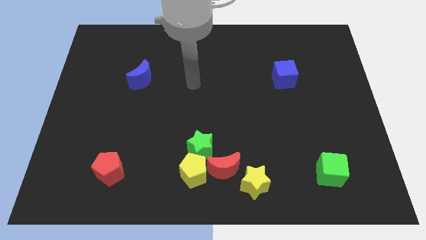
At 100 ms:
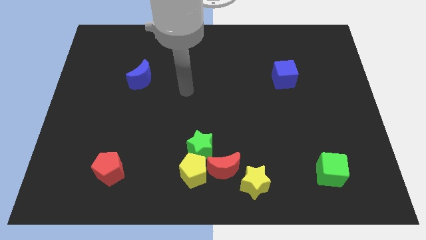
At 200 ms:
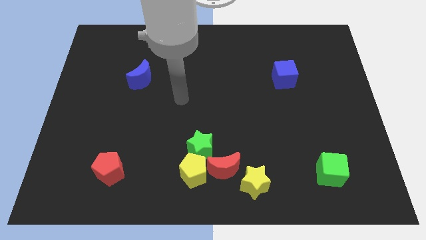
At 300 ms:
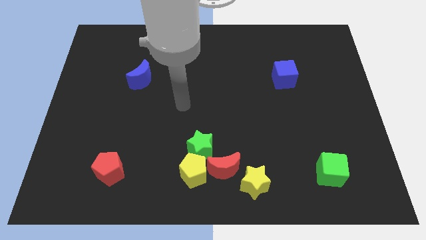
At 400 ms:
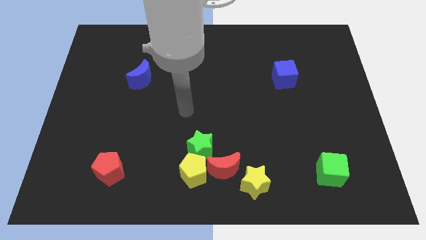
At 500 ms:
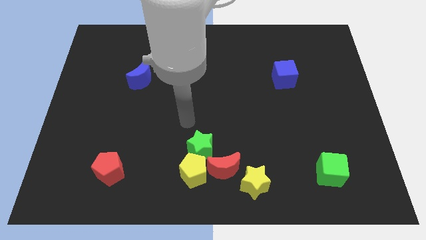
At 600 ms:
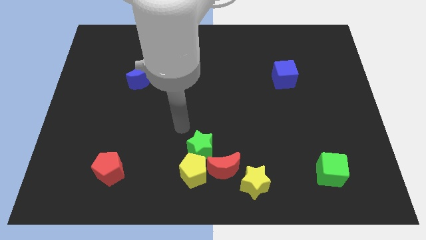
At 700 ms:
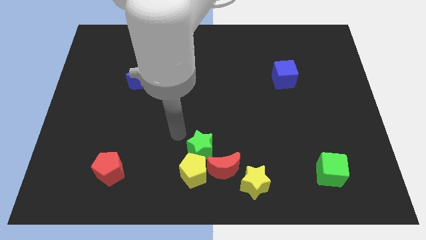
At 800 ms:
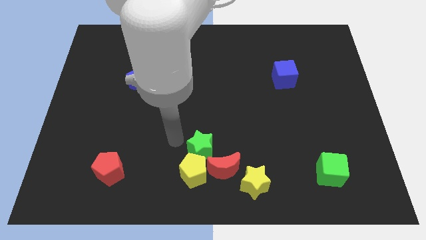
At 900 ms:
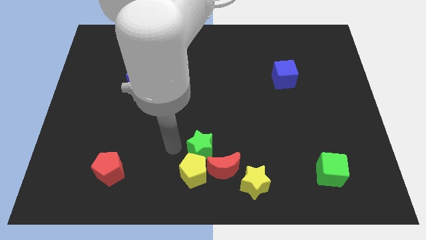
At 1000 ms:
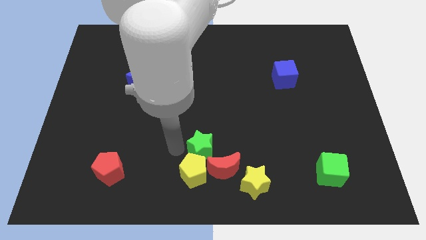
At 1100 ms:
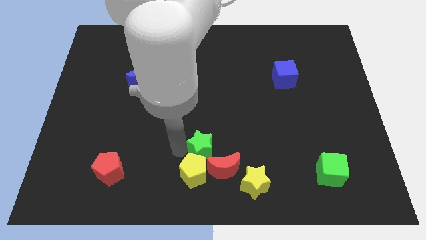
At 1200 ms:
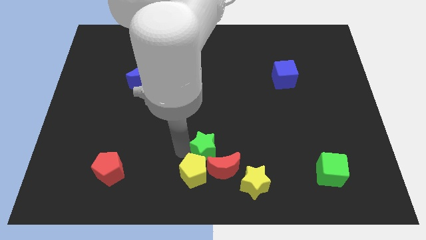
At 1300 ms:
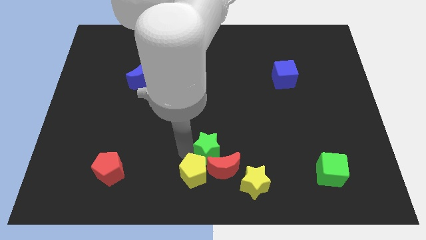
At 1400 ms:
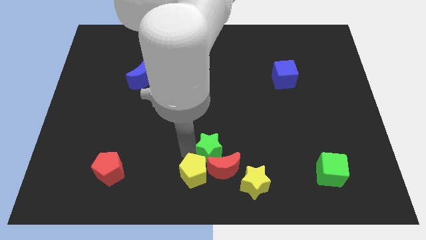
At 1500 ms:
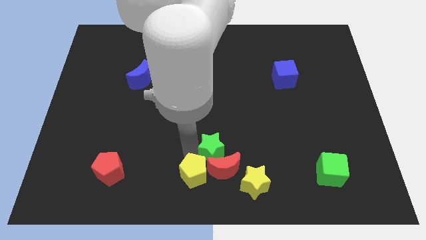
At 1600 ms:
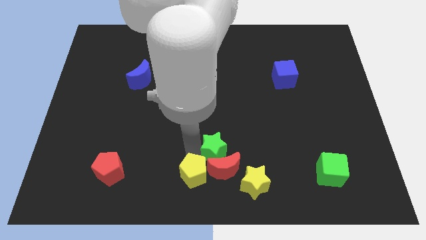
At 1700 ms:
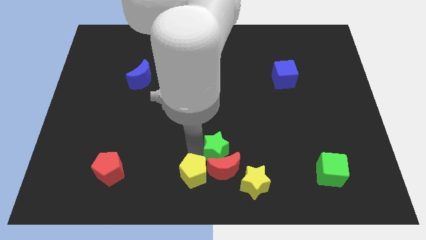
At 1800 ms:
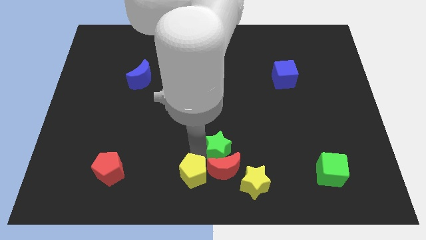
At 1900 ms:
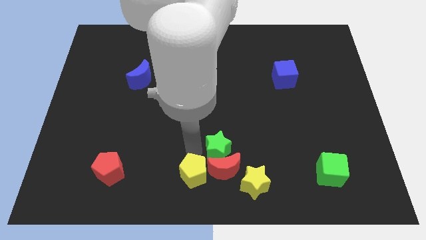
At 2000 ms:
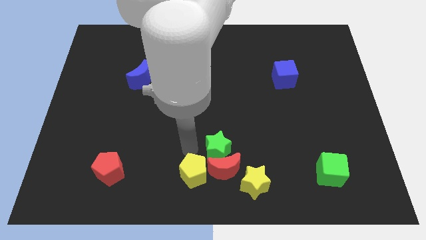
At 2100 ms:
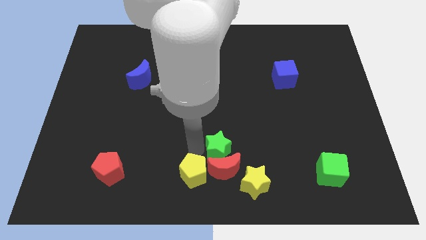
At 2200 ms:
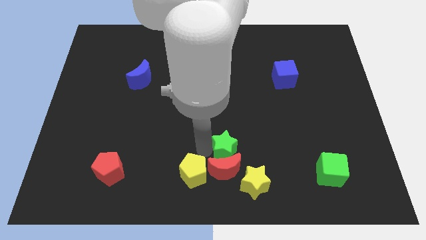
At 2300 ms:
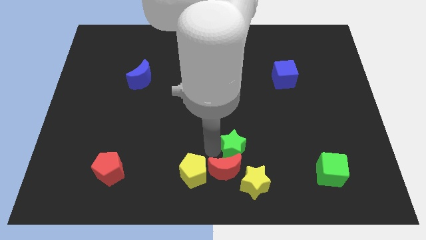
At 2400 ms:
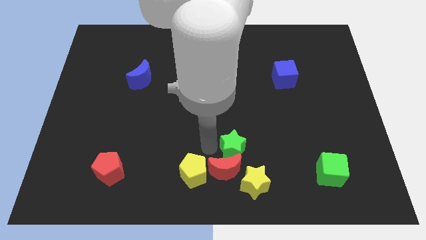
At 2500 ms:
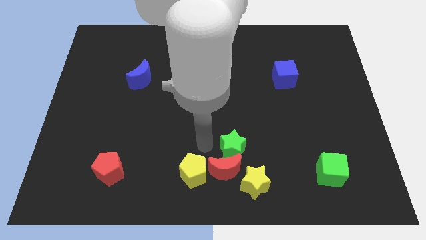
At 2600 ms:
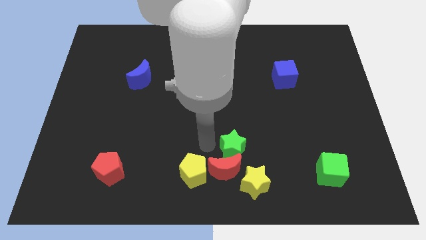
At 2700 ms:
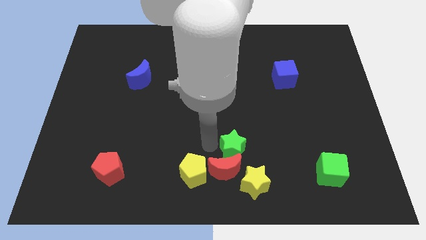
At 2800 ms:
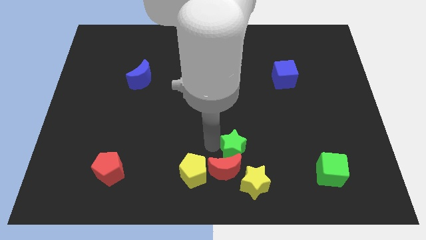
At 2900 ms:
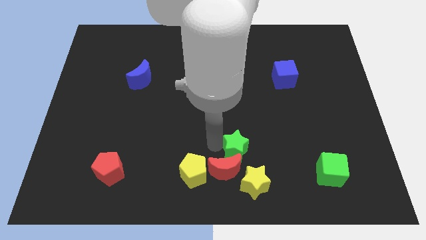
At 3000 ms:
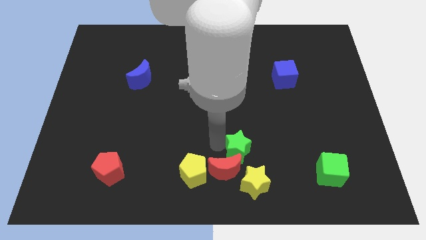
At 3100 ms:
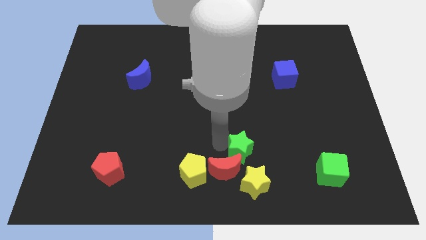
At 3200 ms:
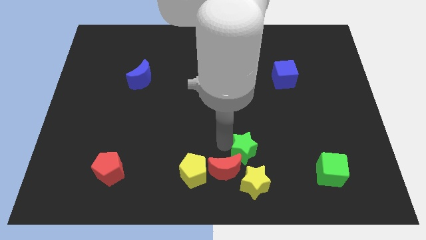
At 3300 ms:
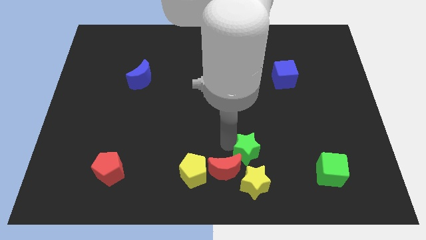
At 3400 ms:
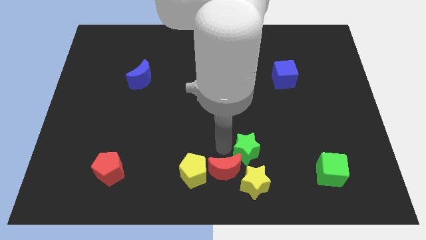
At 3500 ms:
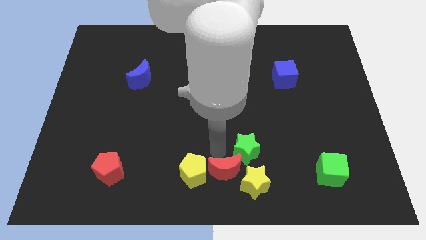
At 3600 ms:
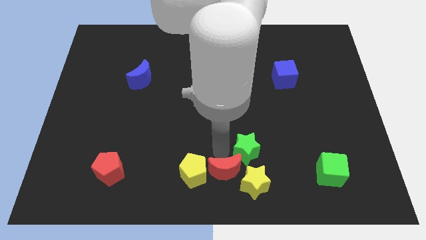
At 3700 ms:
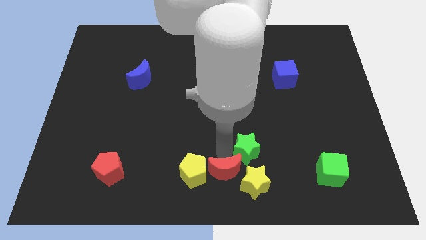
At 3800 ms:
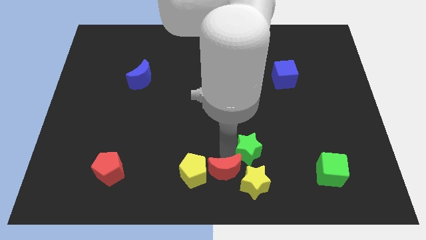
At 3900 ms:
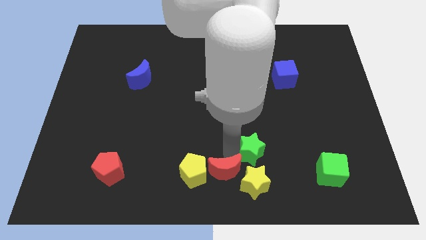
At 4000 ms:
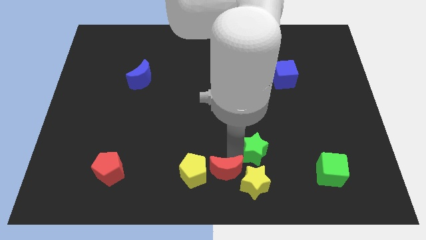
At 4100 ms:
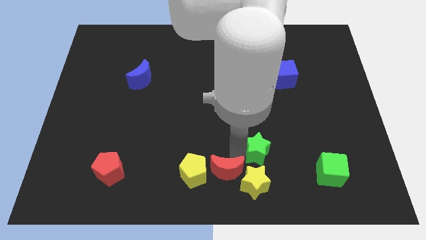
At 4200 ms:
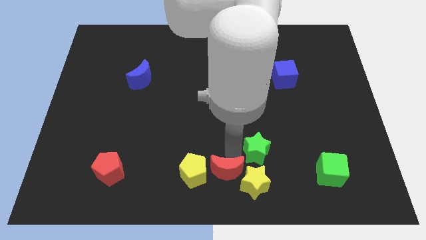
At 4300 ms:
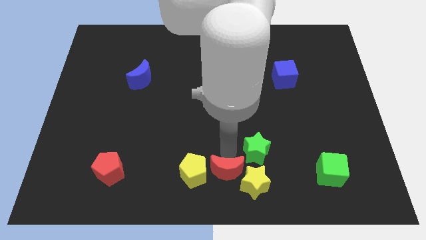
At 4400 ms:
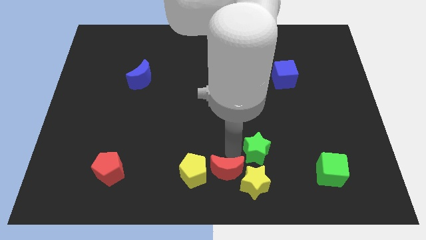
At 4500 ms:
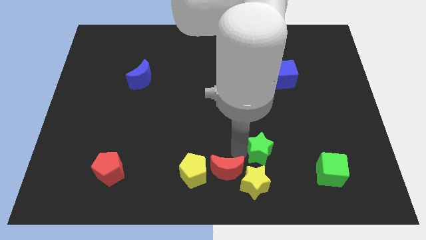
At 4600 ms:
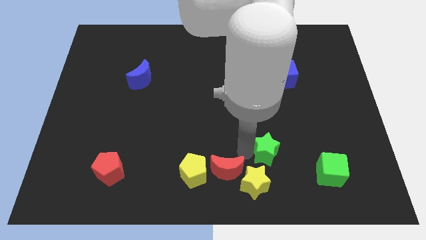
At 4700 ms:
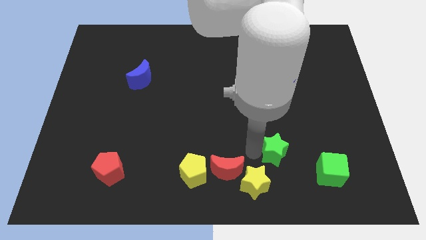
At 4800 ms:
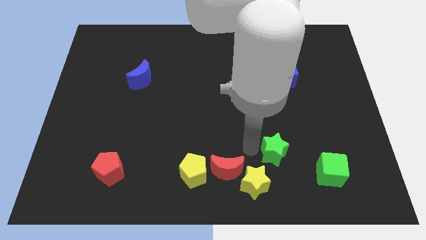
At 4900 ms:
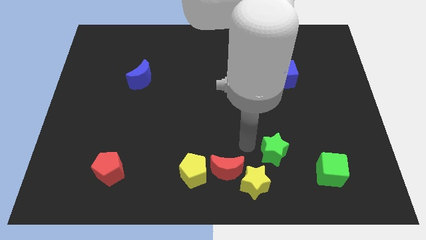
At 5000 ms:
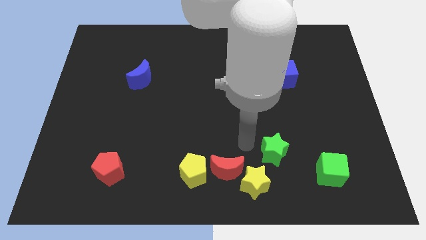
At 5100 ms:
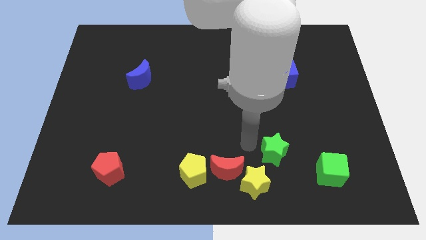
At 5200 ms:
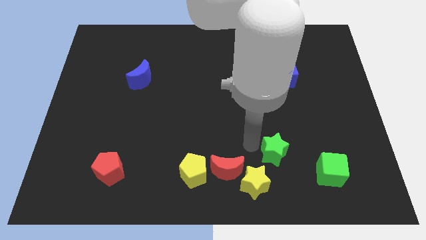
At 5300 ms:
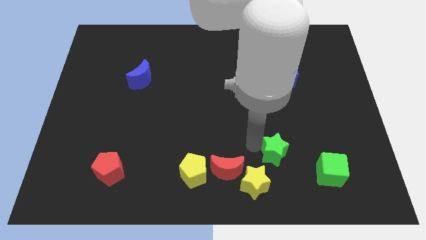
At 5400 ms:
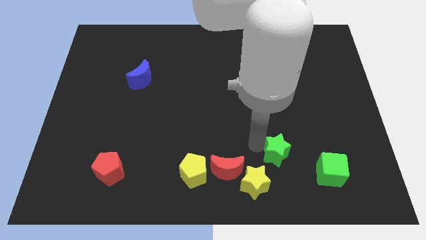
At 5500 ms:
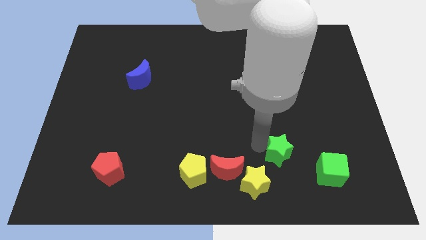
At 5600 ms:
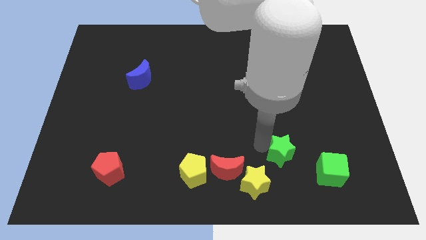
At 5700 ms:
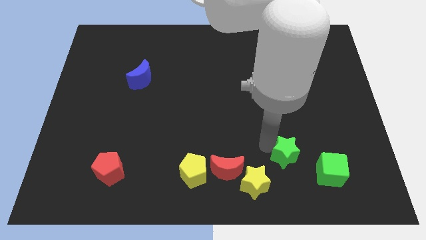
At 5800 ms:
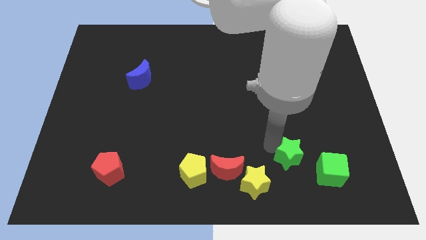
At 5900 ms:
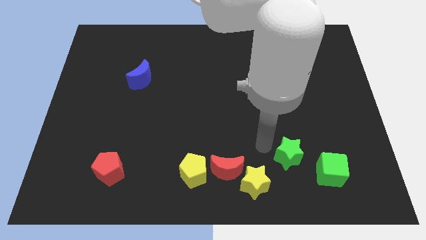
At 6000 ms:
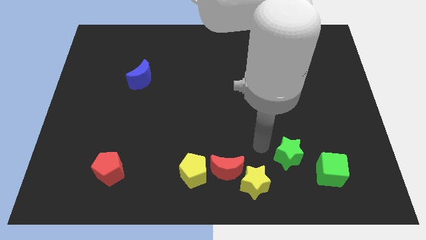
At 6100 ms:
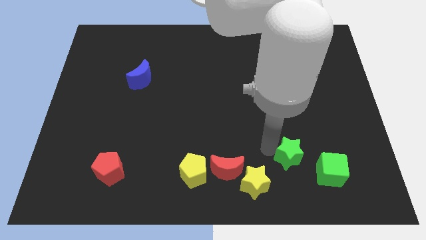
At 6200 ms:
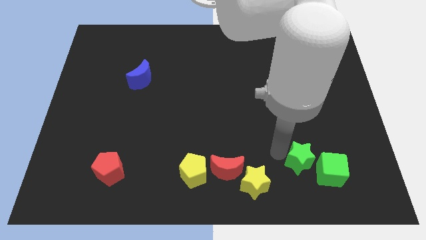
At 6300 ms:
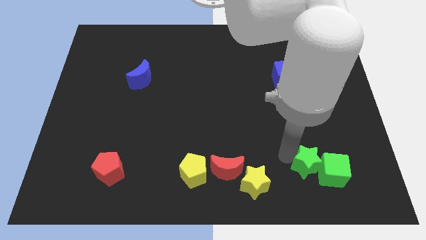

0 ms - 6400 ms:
move the green star close to the green cube

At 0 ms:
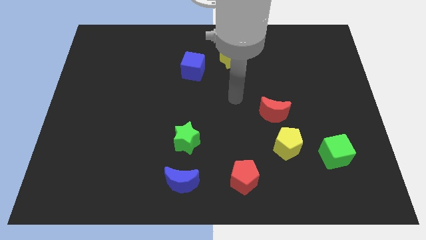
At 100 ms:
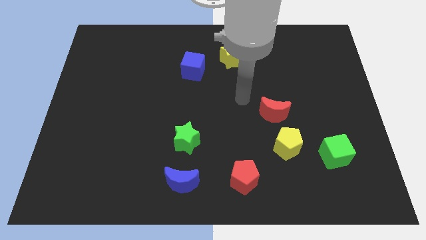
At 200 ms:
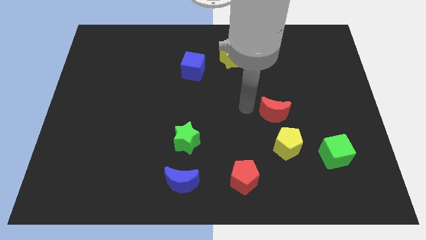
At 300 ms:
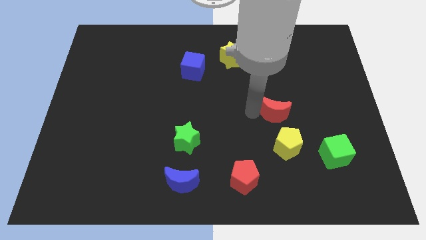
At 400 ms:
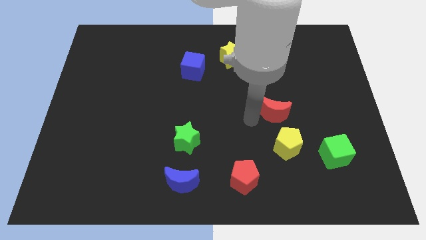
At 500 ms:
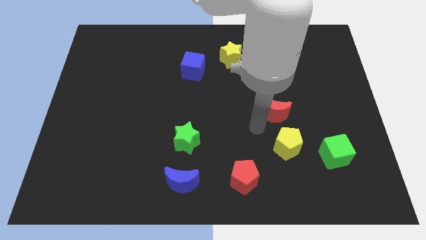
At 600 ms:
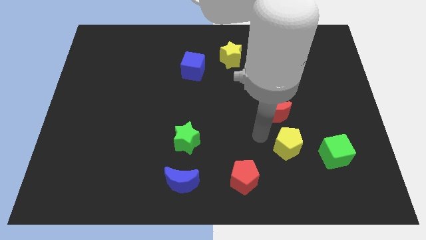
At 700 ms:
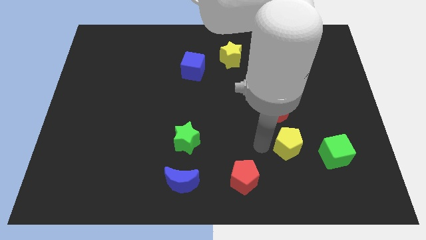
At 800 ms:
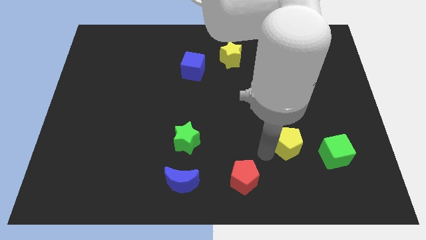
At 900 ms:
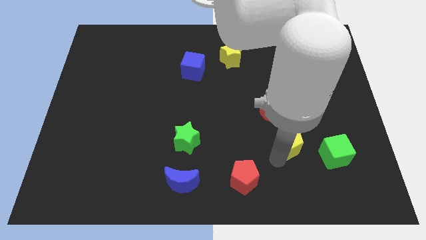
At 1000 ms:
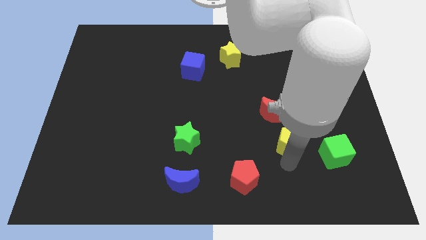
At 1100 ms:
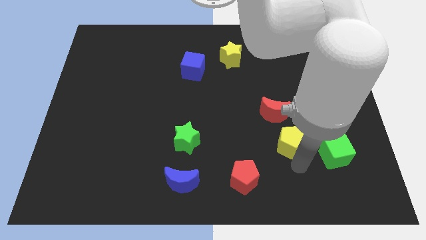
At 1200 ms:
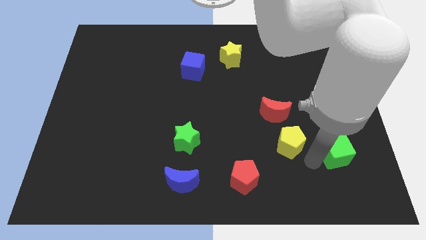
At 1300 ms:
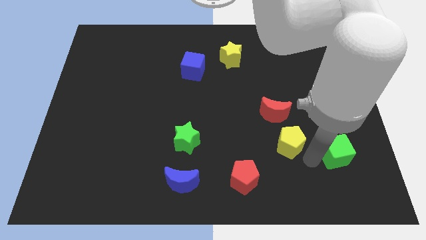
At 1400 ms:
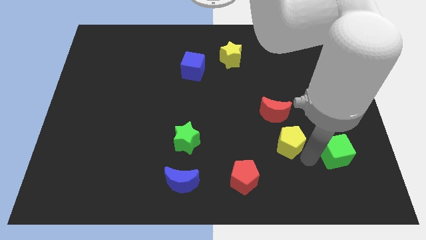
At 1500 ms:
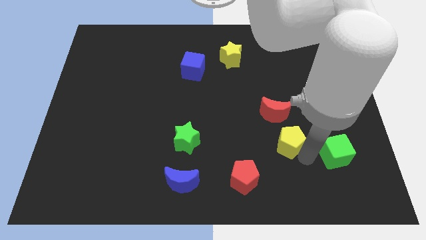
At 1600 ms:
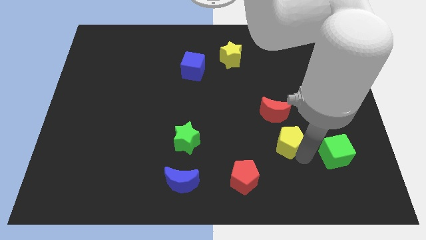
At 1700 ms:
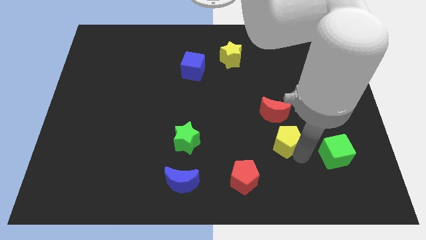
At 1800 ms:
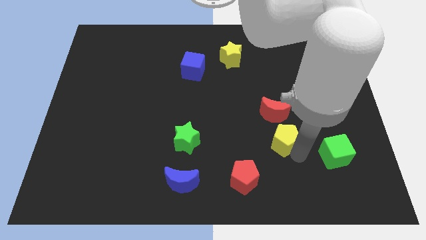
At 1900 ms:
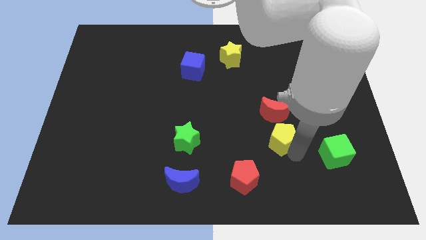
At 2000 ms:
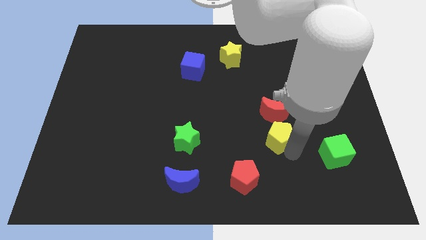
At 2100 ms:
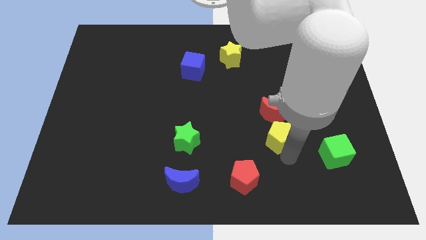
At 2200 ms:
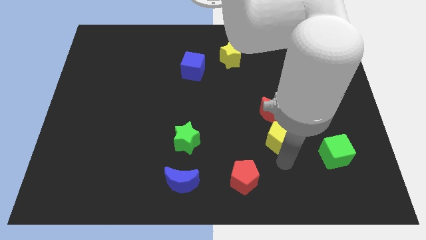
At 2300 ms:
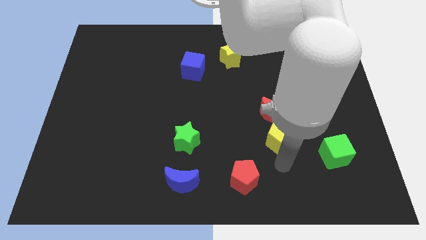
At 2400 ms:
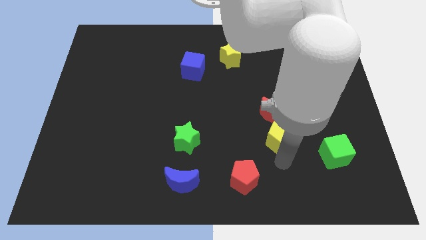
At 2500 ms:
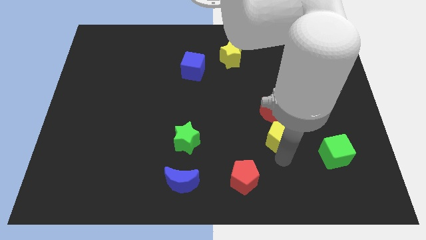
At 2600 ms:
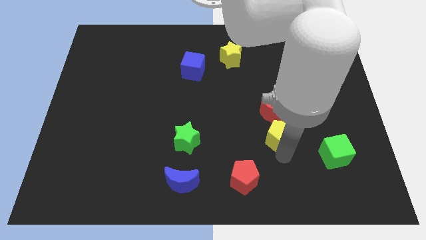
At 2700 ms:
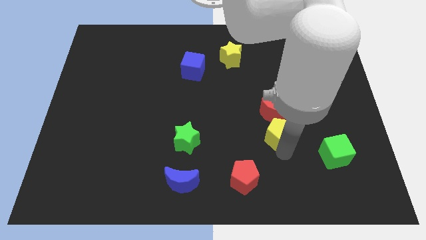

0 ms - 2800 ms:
move the yellow pentagon next to the red moon
